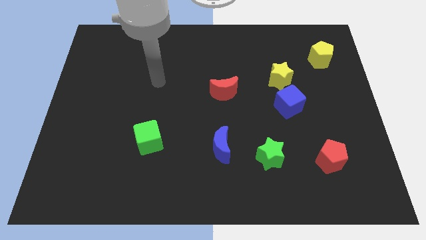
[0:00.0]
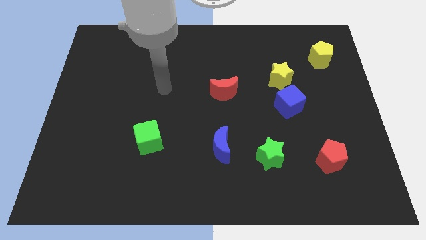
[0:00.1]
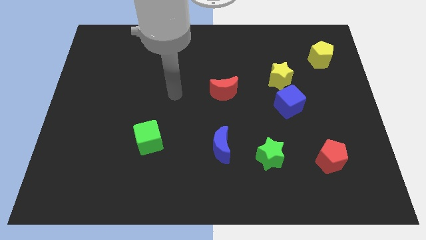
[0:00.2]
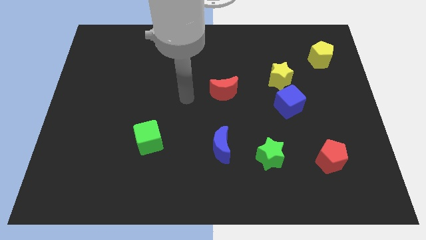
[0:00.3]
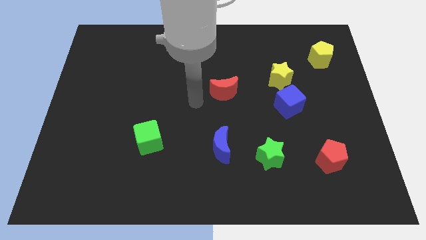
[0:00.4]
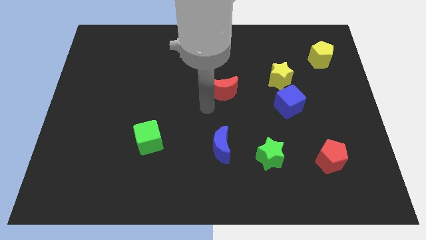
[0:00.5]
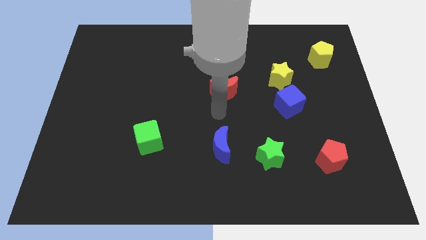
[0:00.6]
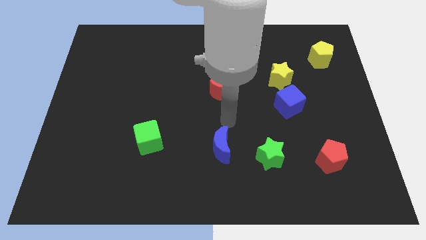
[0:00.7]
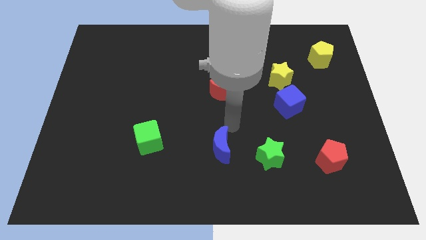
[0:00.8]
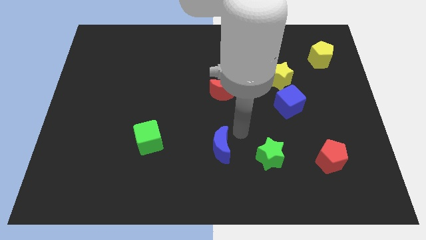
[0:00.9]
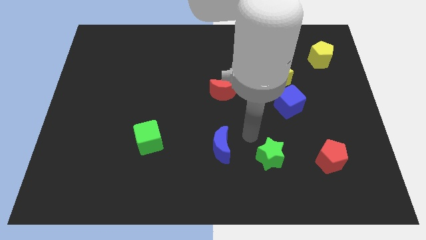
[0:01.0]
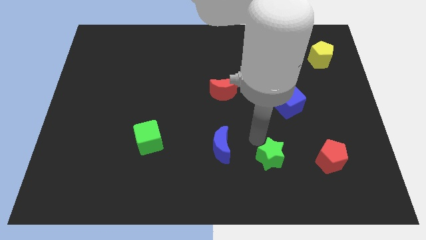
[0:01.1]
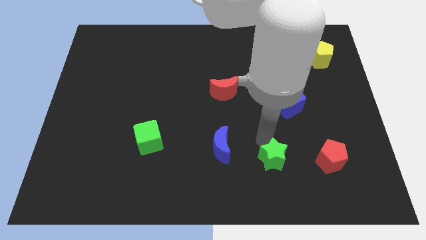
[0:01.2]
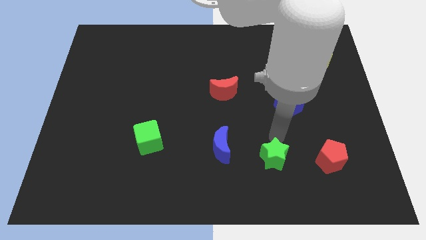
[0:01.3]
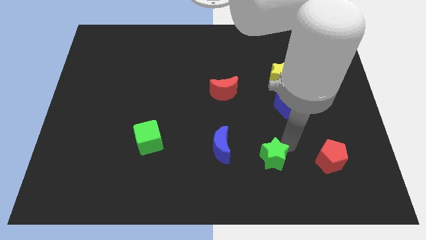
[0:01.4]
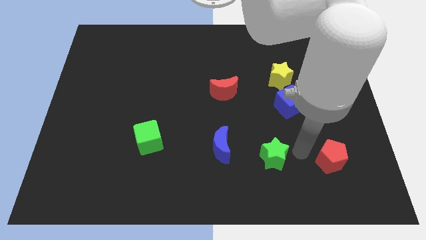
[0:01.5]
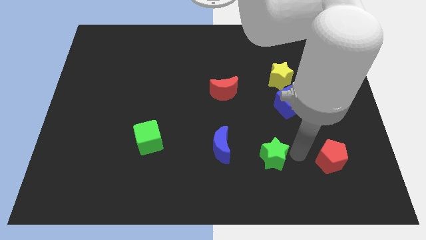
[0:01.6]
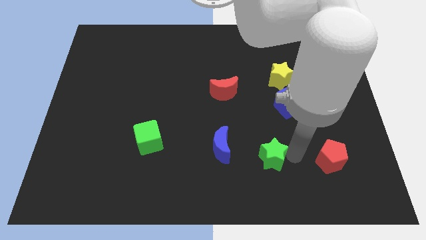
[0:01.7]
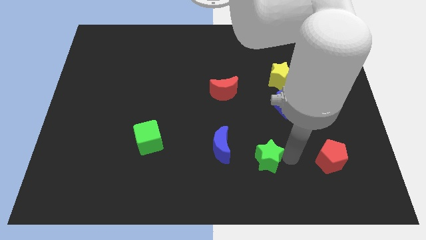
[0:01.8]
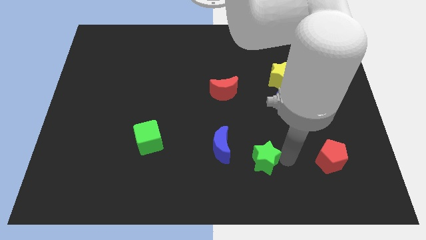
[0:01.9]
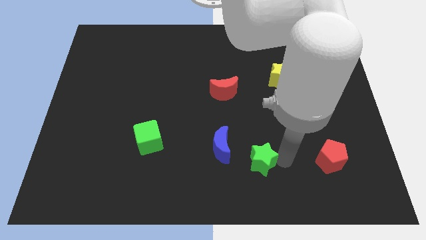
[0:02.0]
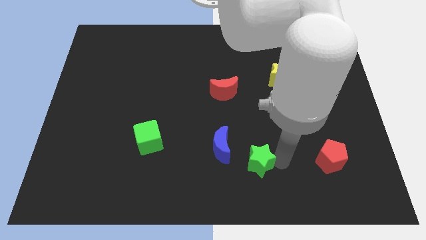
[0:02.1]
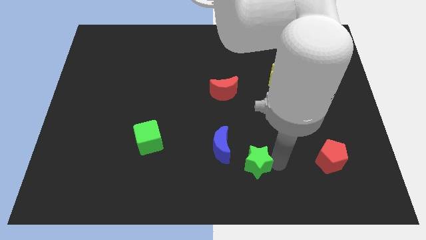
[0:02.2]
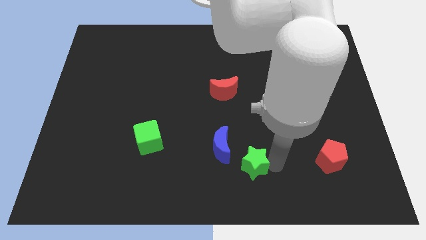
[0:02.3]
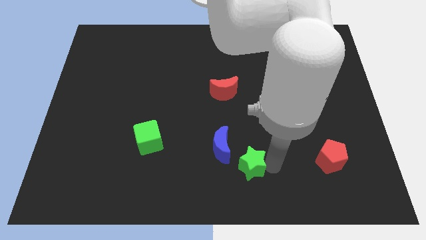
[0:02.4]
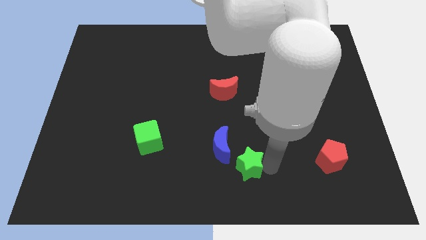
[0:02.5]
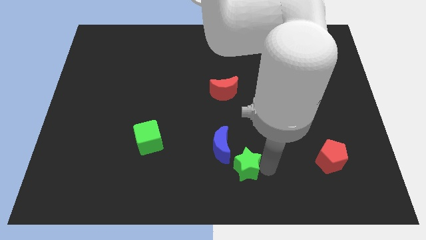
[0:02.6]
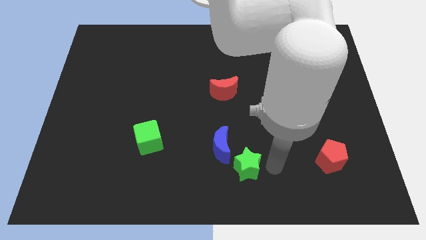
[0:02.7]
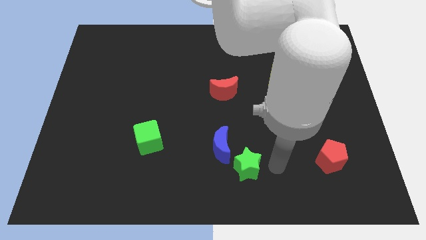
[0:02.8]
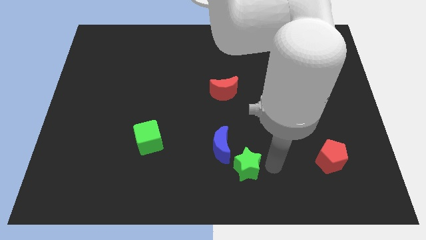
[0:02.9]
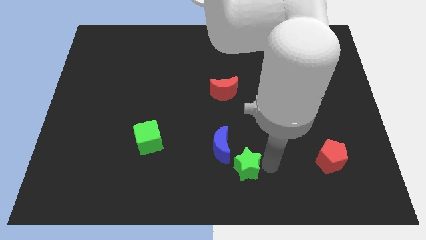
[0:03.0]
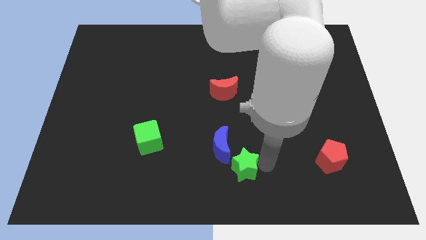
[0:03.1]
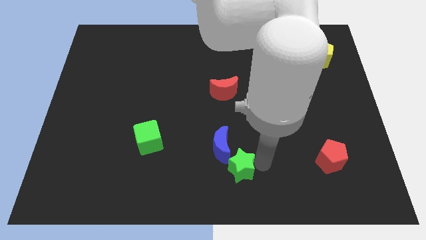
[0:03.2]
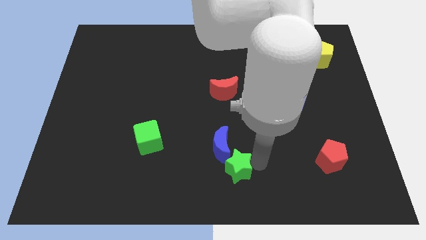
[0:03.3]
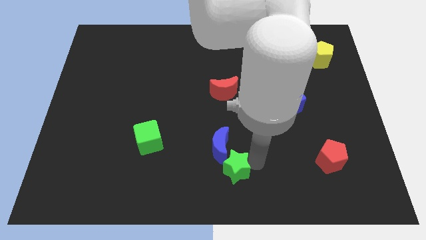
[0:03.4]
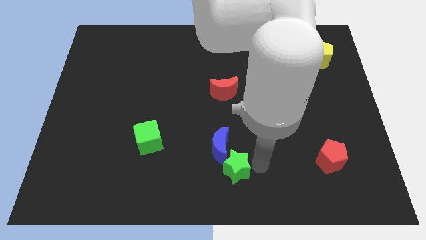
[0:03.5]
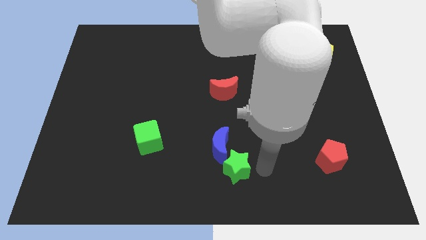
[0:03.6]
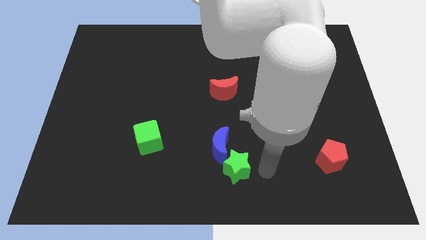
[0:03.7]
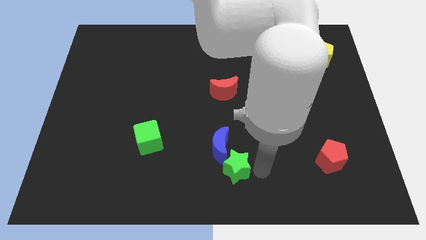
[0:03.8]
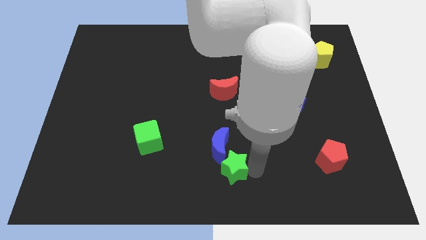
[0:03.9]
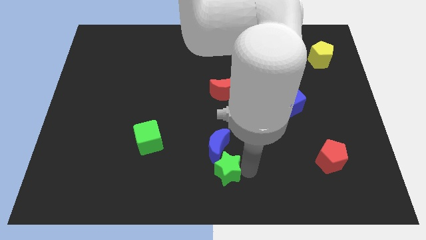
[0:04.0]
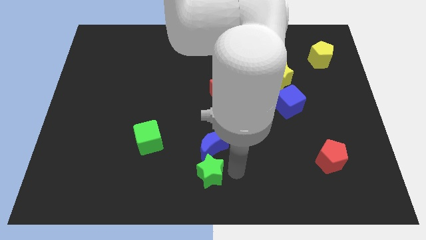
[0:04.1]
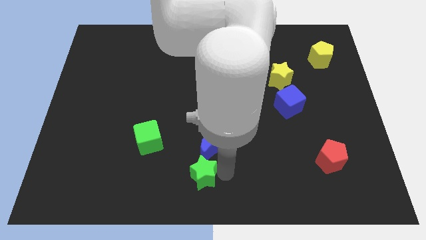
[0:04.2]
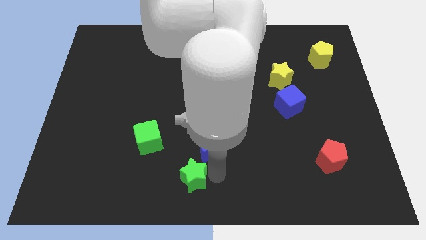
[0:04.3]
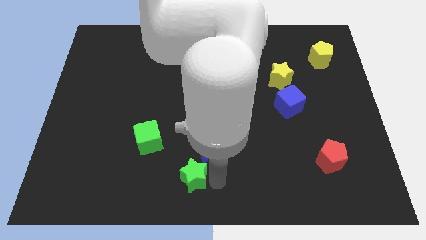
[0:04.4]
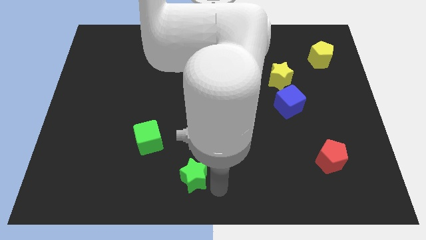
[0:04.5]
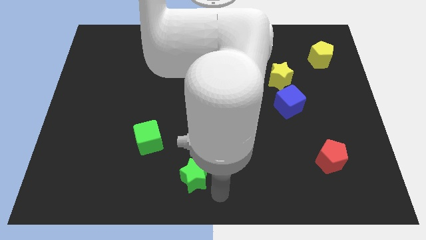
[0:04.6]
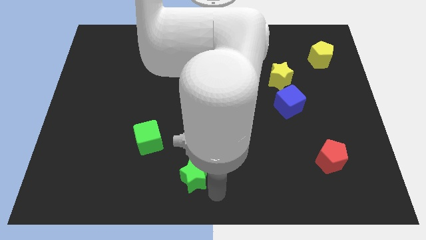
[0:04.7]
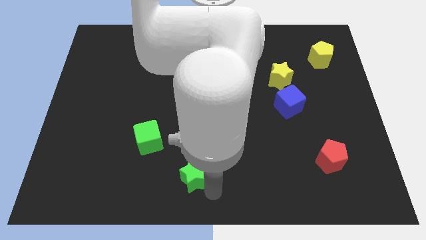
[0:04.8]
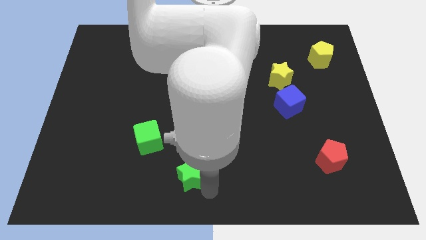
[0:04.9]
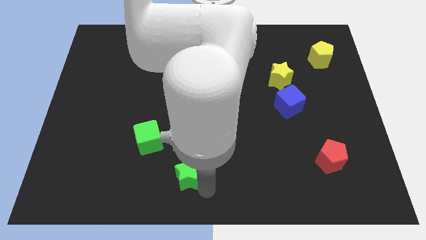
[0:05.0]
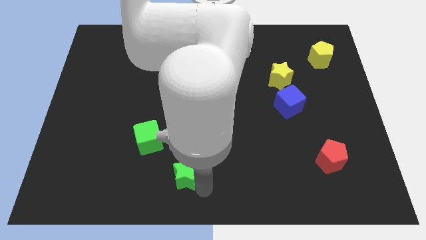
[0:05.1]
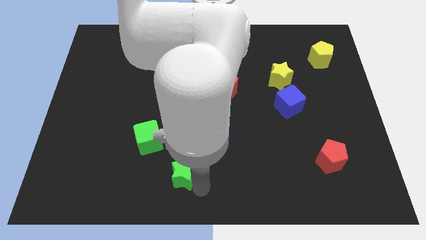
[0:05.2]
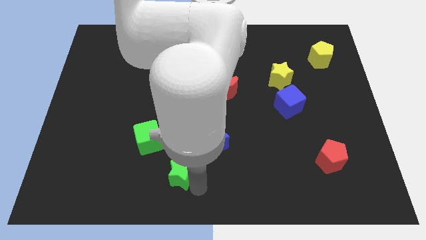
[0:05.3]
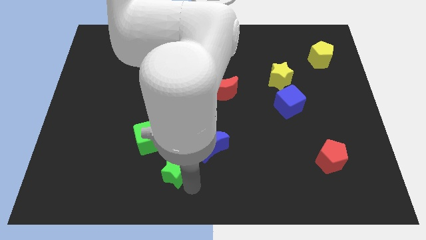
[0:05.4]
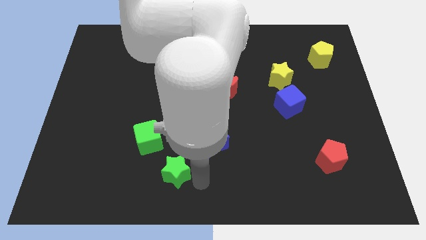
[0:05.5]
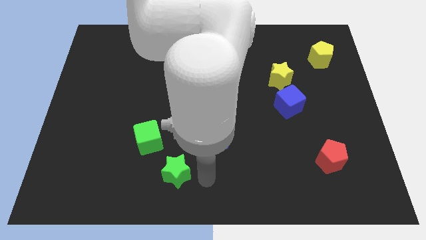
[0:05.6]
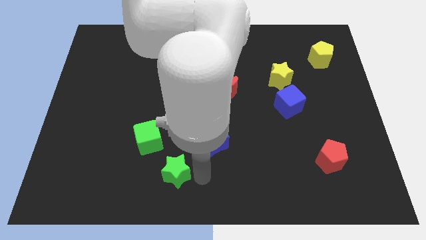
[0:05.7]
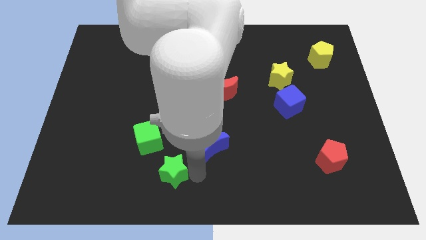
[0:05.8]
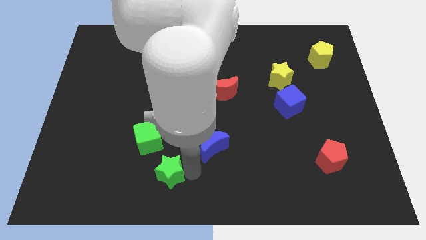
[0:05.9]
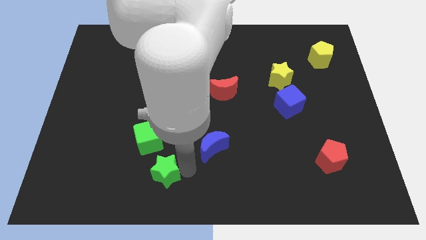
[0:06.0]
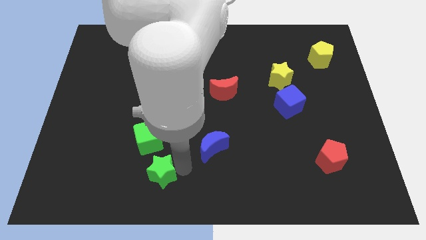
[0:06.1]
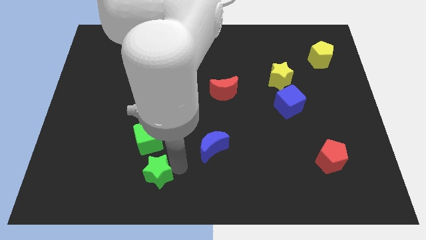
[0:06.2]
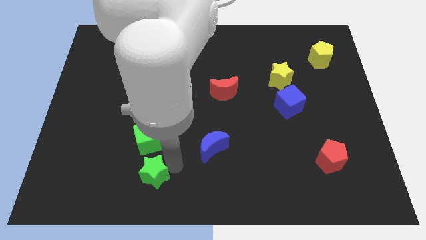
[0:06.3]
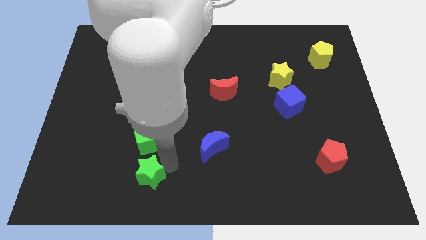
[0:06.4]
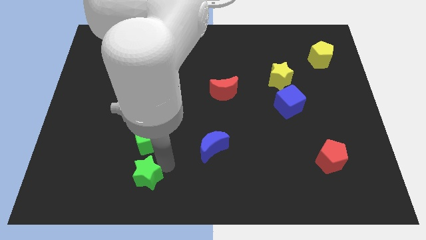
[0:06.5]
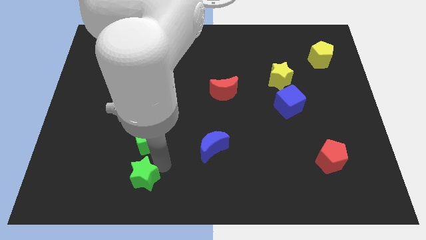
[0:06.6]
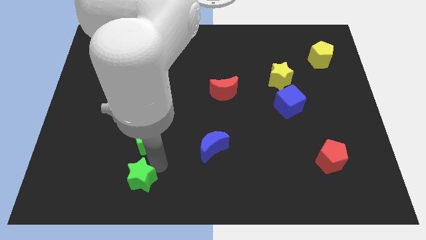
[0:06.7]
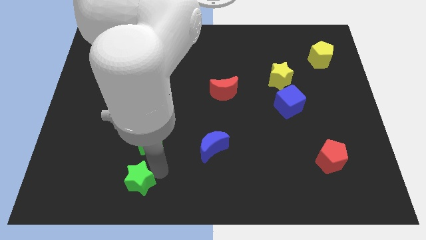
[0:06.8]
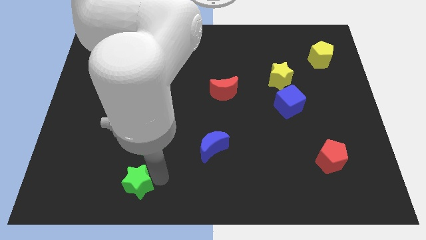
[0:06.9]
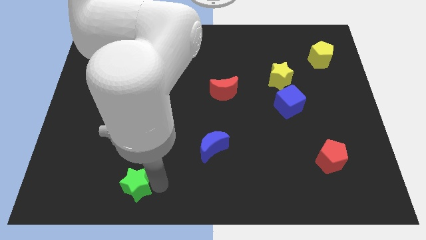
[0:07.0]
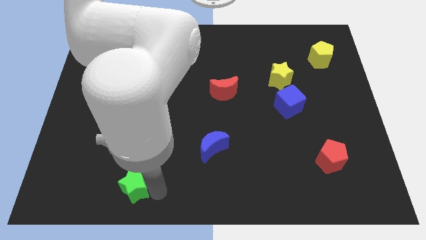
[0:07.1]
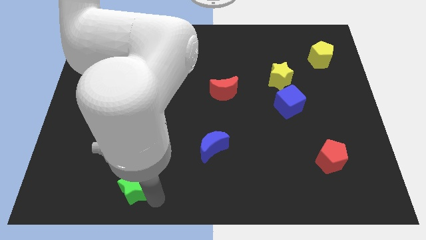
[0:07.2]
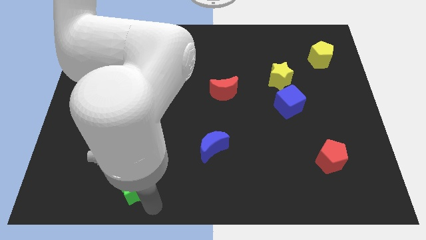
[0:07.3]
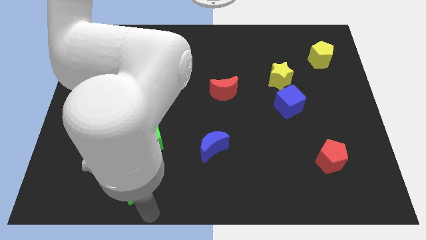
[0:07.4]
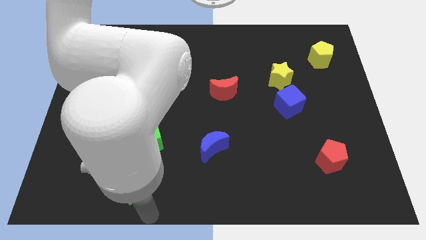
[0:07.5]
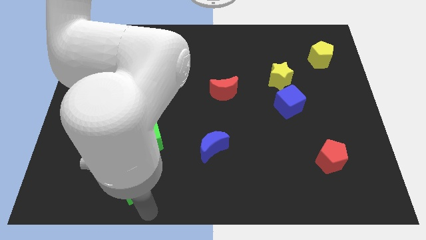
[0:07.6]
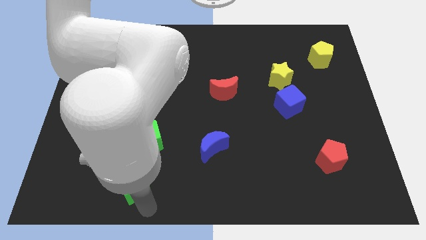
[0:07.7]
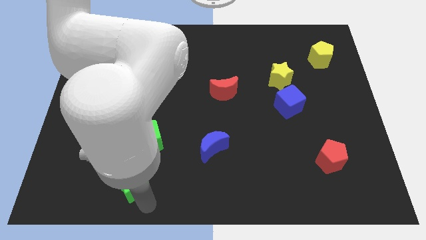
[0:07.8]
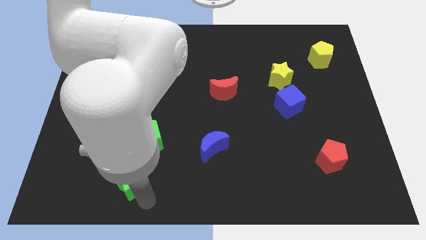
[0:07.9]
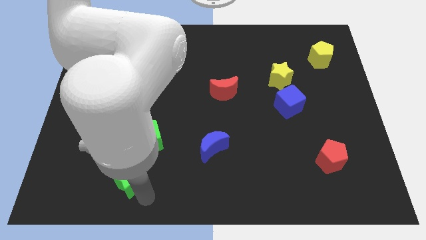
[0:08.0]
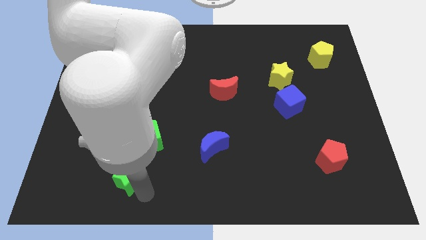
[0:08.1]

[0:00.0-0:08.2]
slide the green star diagonally down and to the left of the green cube
